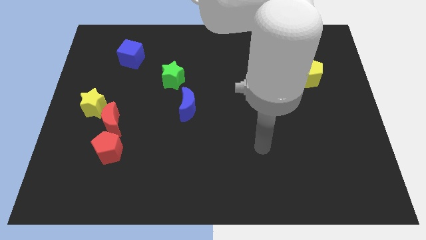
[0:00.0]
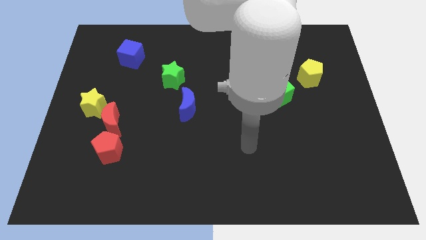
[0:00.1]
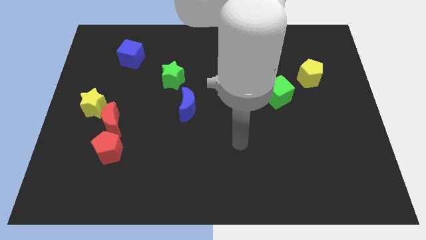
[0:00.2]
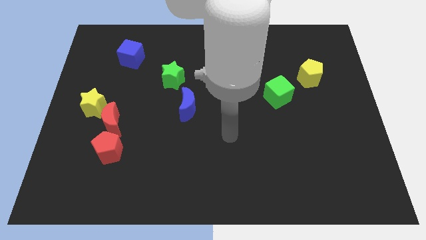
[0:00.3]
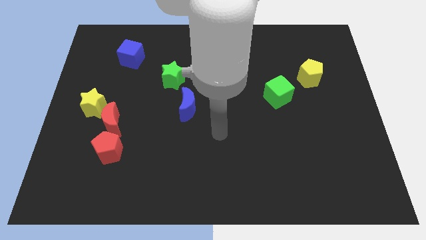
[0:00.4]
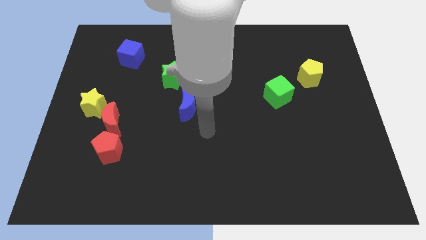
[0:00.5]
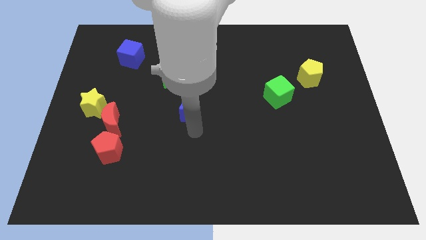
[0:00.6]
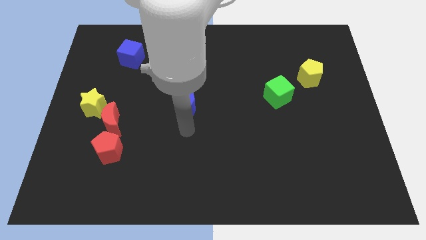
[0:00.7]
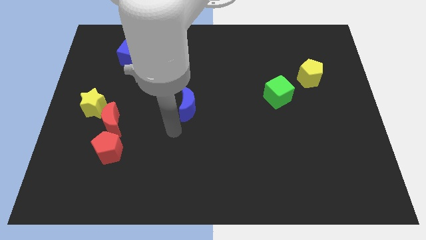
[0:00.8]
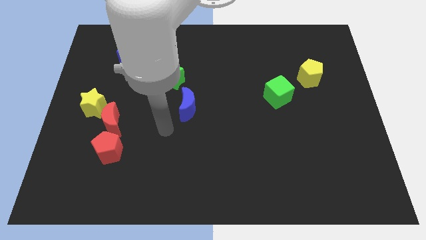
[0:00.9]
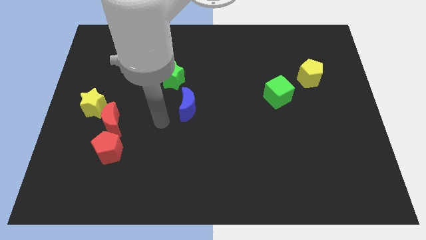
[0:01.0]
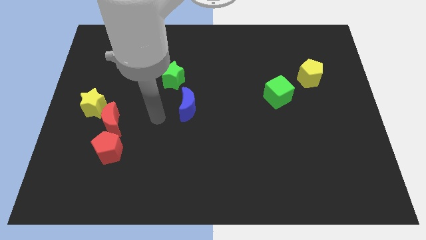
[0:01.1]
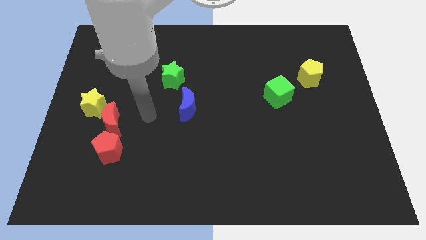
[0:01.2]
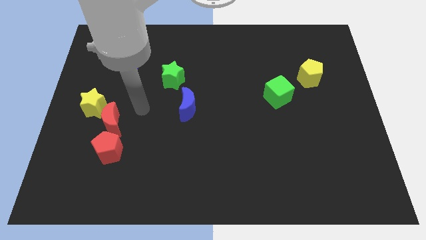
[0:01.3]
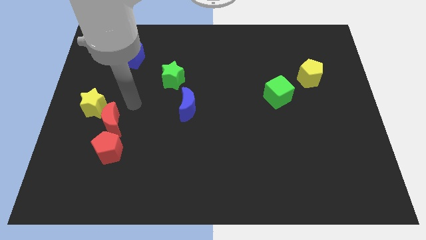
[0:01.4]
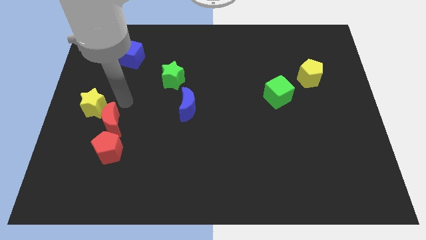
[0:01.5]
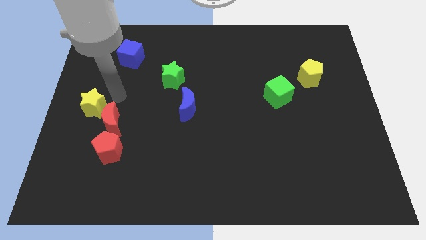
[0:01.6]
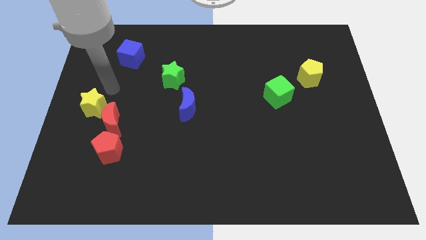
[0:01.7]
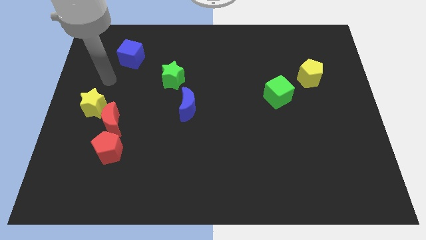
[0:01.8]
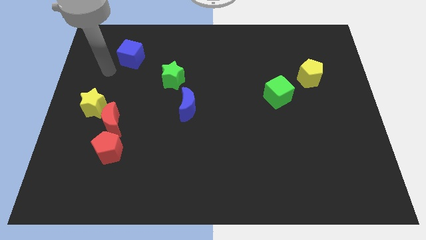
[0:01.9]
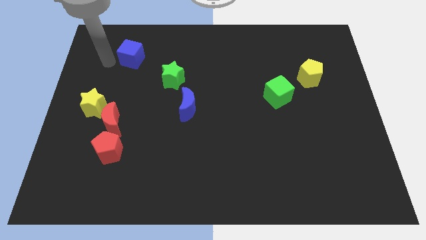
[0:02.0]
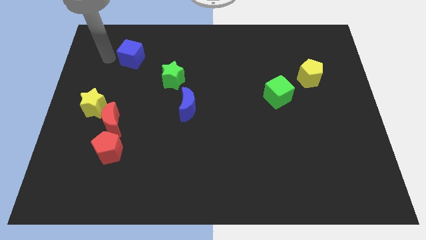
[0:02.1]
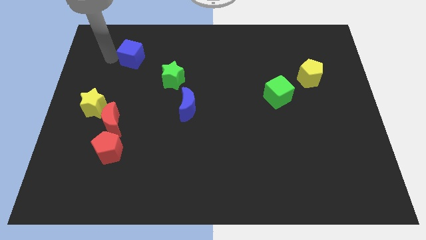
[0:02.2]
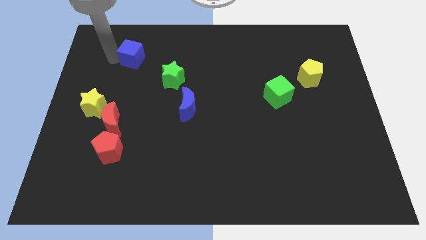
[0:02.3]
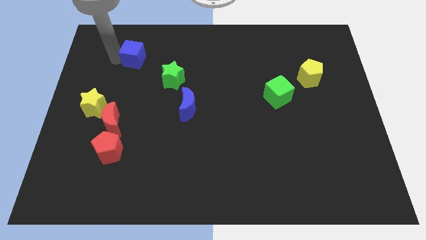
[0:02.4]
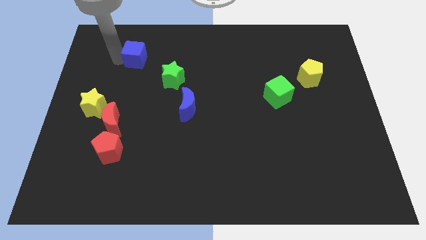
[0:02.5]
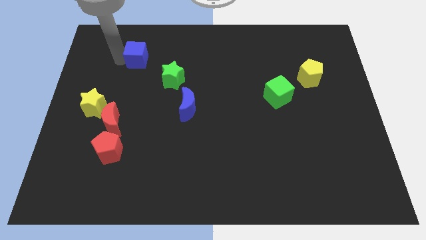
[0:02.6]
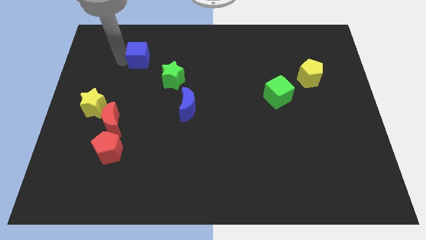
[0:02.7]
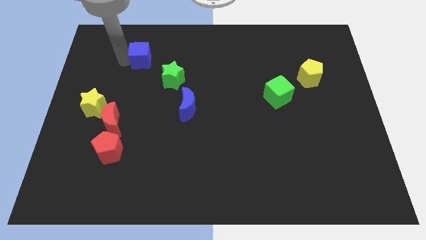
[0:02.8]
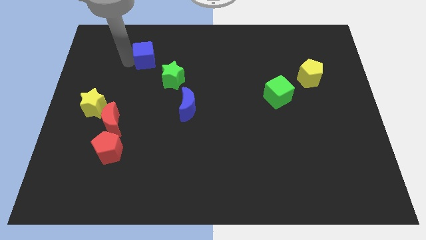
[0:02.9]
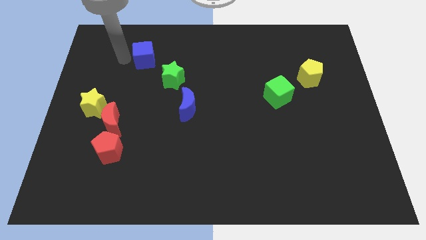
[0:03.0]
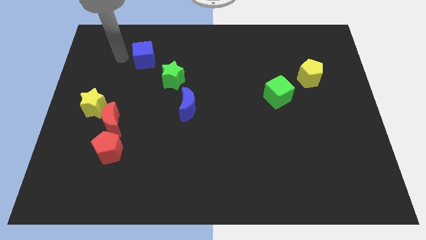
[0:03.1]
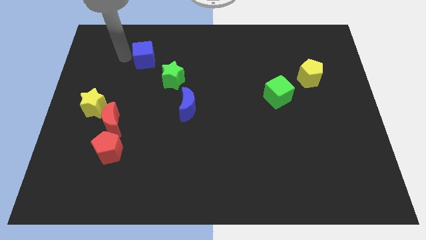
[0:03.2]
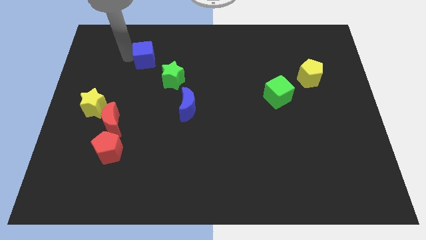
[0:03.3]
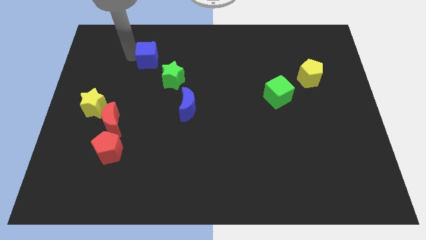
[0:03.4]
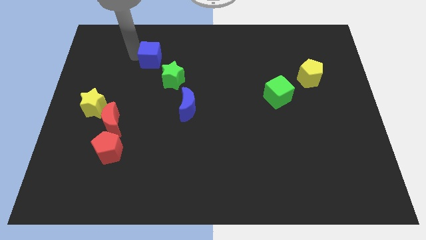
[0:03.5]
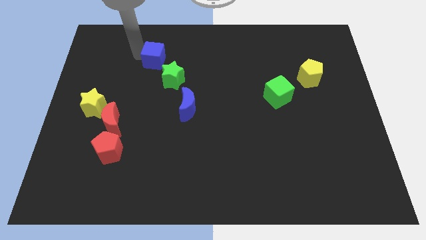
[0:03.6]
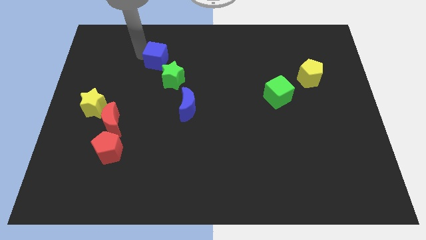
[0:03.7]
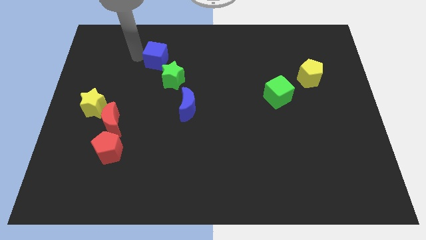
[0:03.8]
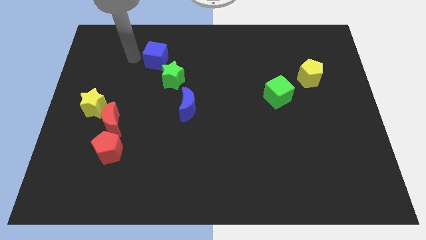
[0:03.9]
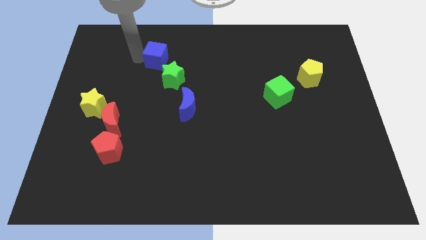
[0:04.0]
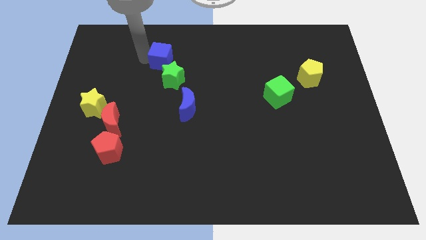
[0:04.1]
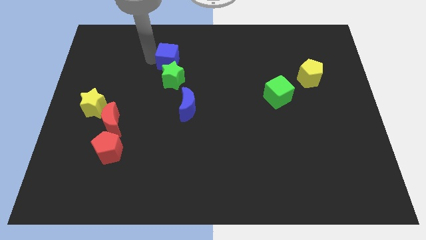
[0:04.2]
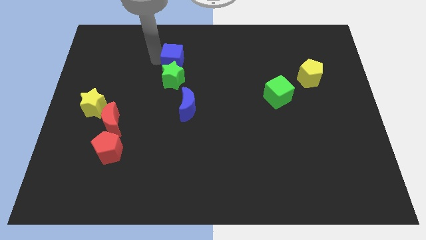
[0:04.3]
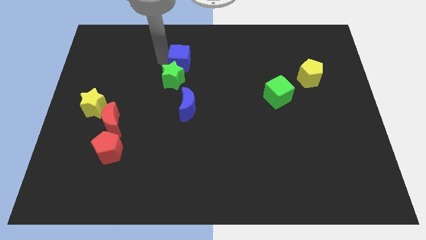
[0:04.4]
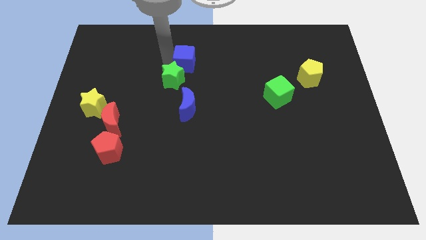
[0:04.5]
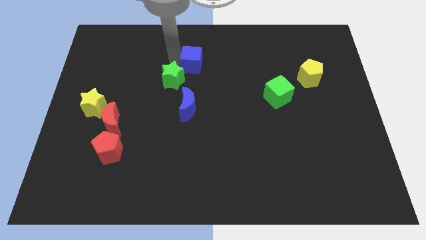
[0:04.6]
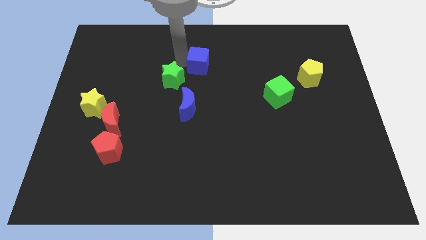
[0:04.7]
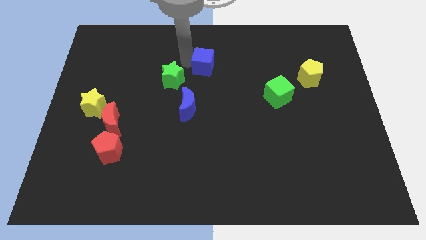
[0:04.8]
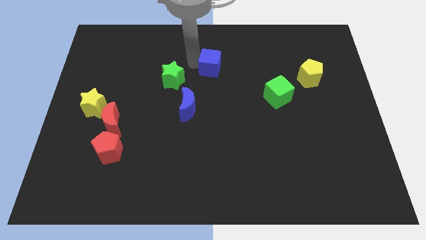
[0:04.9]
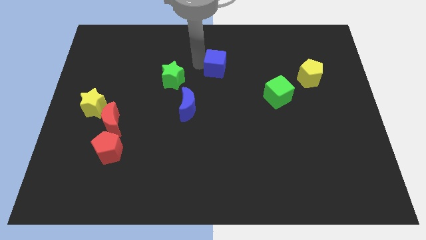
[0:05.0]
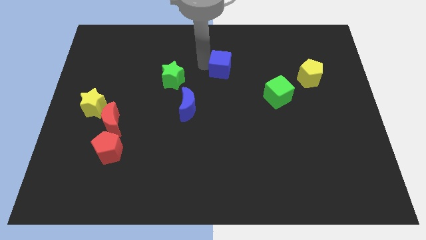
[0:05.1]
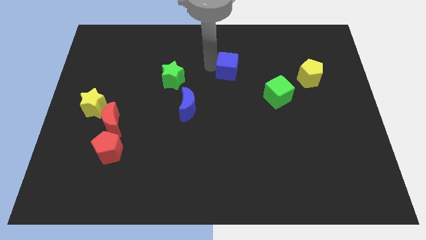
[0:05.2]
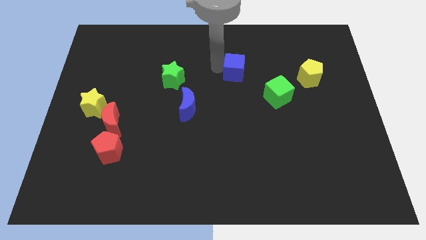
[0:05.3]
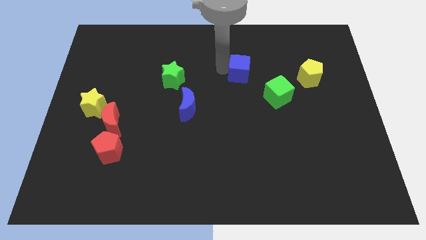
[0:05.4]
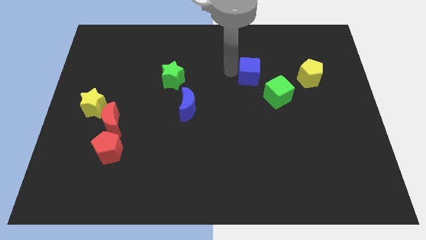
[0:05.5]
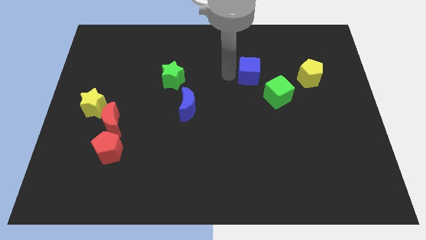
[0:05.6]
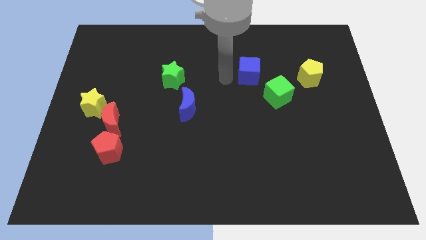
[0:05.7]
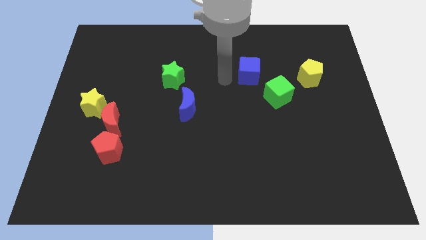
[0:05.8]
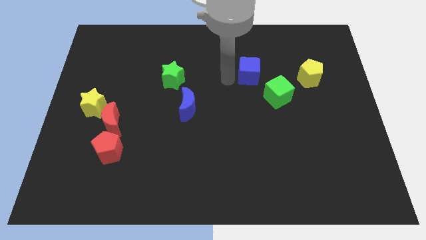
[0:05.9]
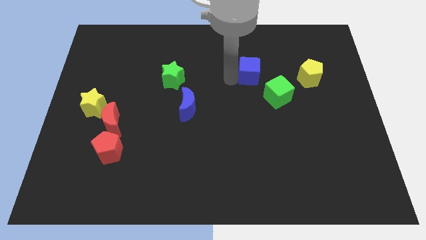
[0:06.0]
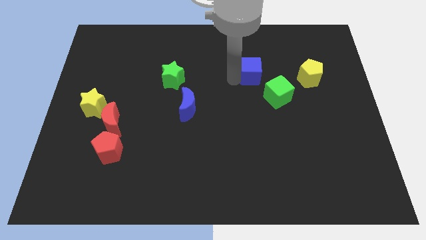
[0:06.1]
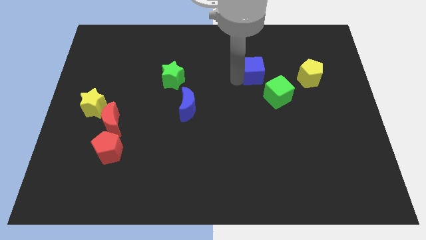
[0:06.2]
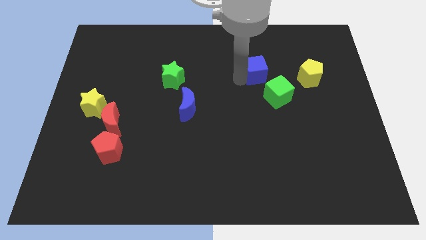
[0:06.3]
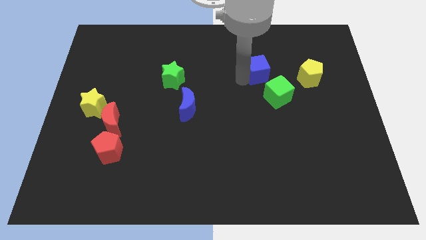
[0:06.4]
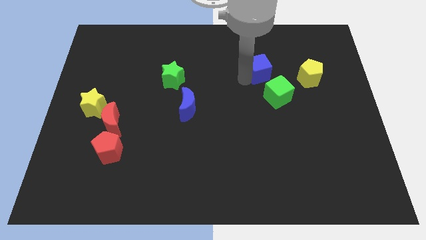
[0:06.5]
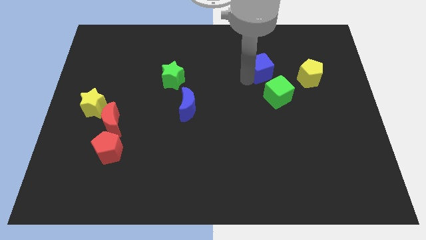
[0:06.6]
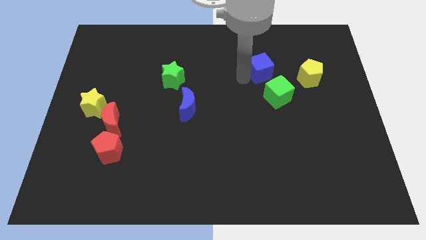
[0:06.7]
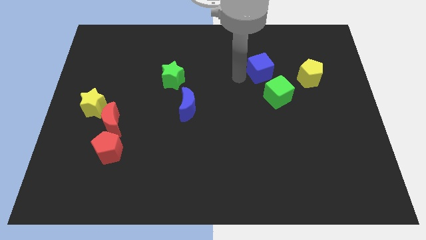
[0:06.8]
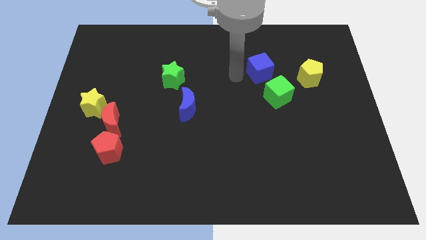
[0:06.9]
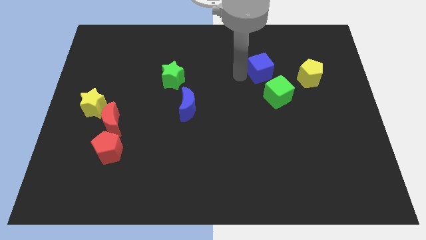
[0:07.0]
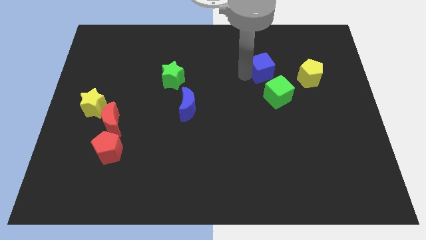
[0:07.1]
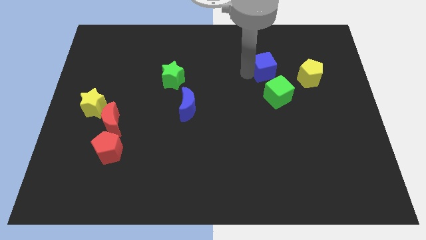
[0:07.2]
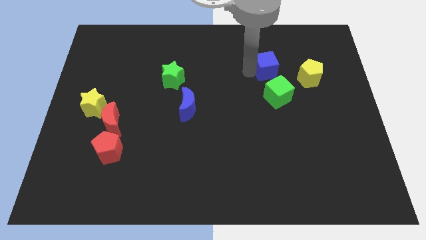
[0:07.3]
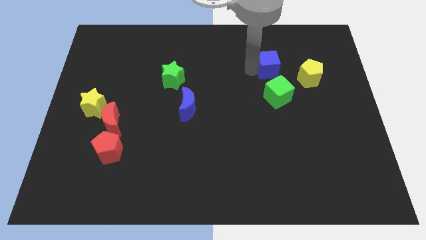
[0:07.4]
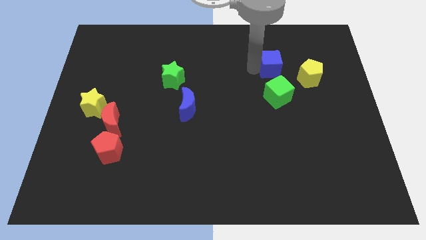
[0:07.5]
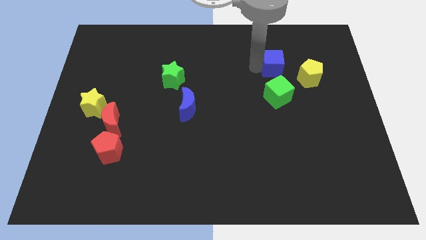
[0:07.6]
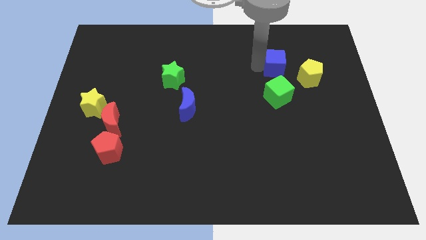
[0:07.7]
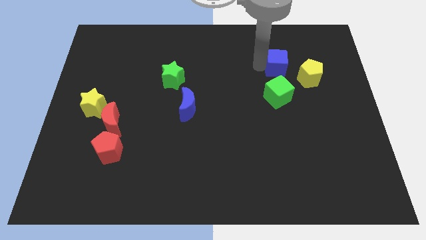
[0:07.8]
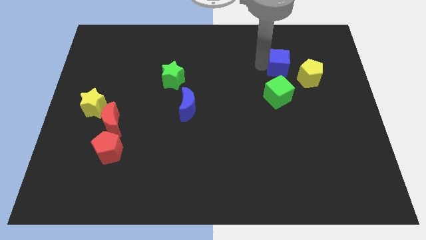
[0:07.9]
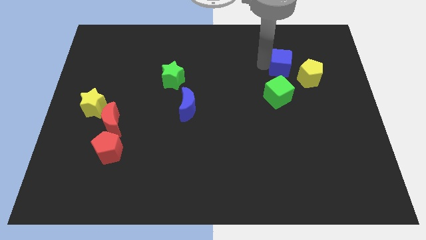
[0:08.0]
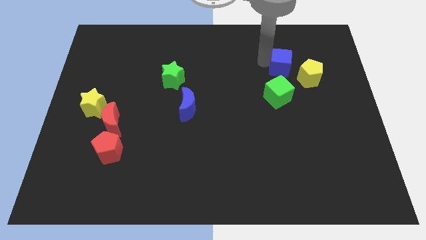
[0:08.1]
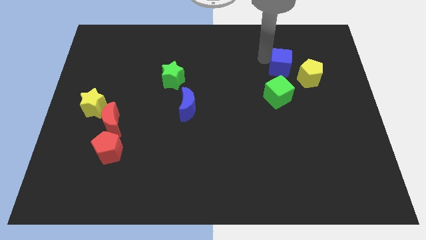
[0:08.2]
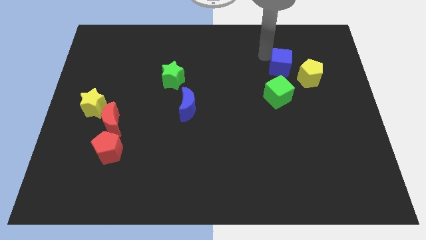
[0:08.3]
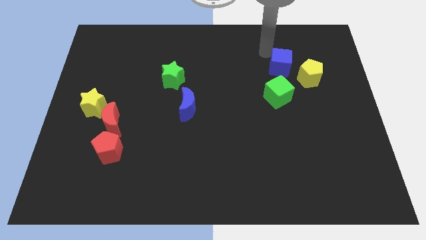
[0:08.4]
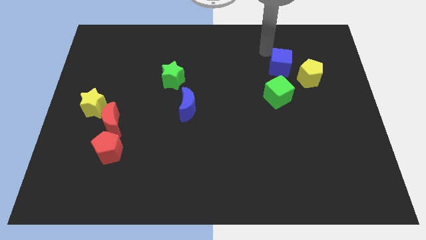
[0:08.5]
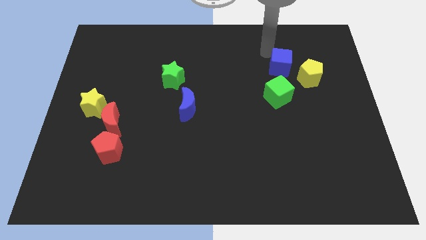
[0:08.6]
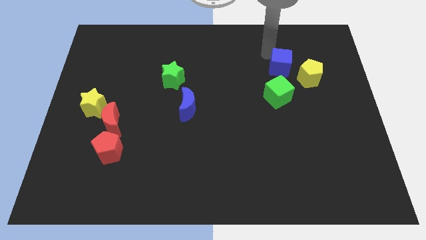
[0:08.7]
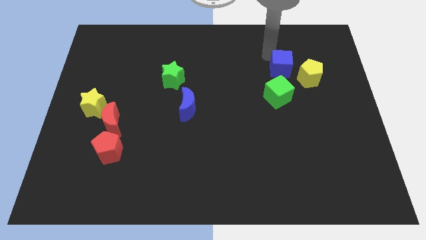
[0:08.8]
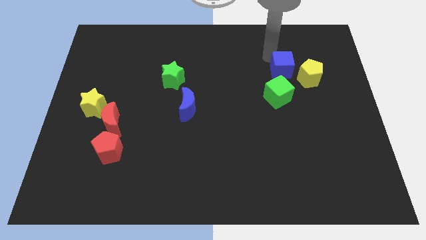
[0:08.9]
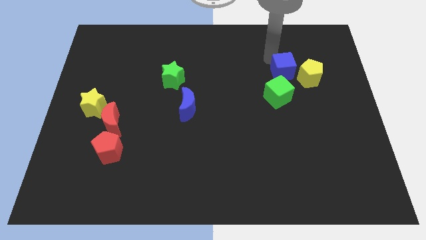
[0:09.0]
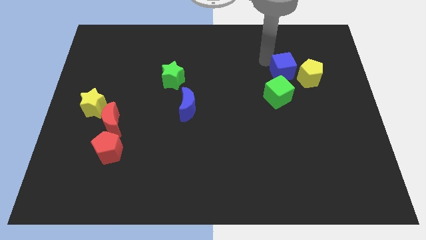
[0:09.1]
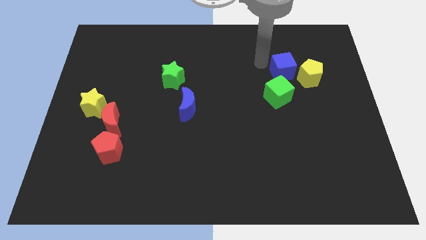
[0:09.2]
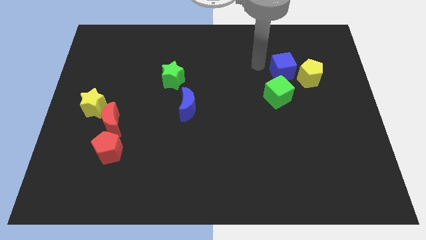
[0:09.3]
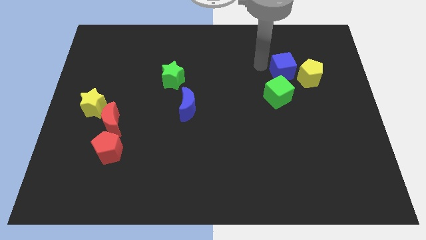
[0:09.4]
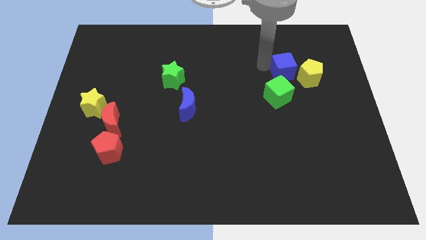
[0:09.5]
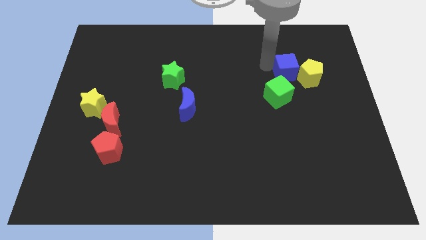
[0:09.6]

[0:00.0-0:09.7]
put the blue cube close to the yellow pentagon
